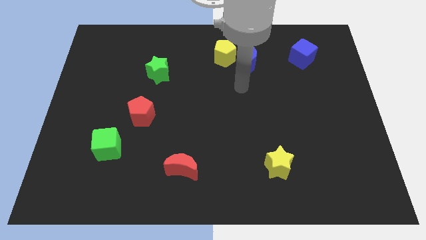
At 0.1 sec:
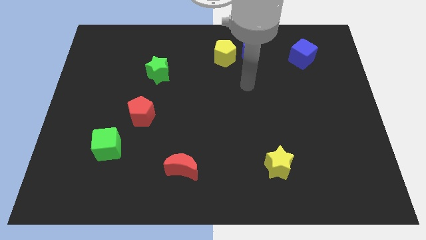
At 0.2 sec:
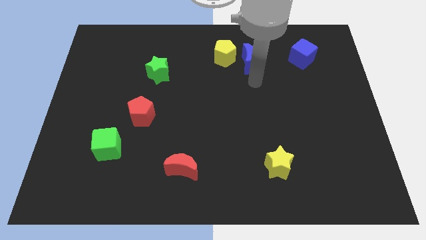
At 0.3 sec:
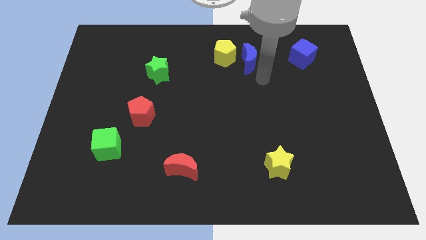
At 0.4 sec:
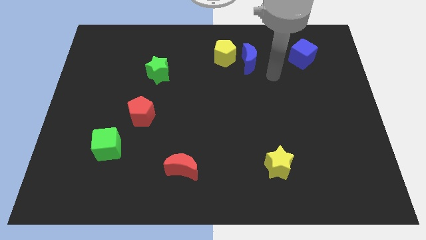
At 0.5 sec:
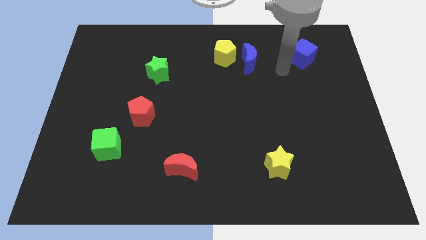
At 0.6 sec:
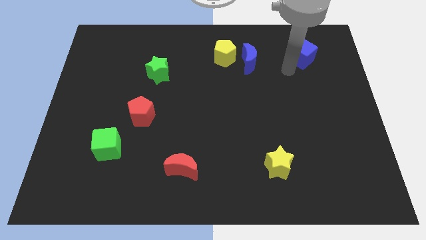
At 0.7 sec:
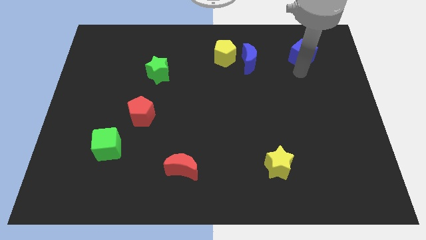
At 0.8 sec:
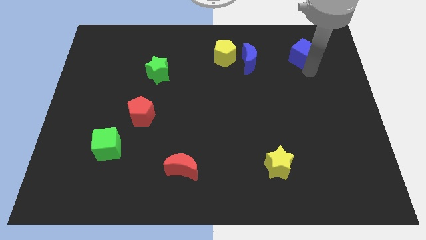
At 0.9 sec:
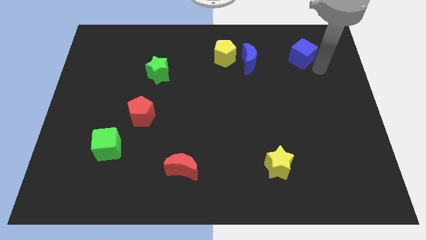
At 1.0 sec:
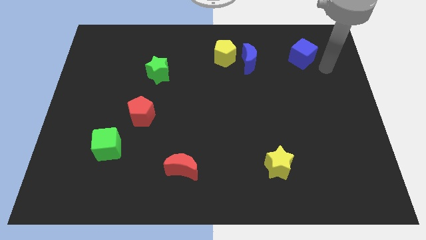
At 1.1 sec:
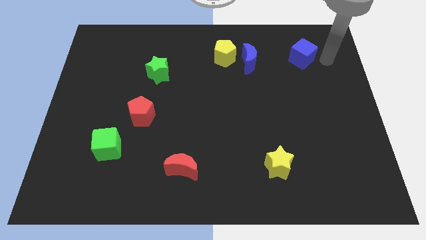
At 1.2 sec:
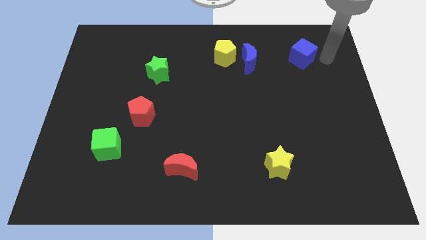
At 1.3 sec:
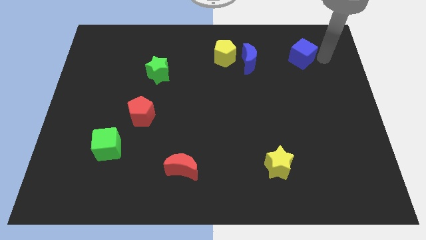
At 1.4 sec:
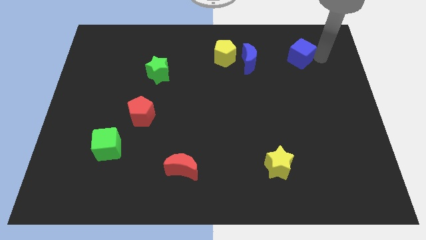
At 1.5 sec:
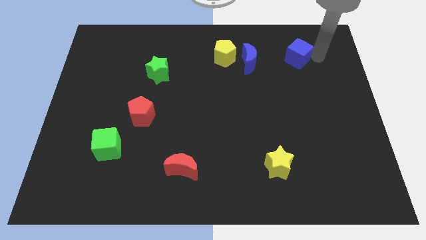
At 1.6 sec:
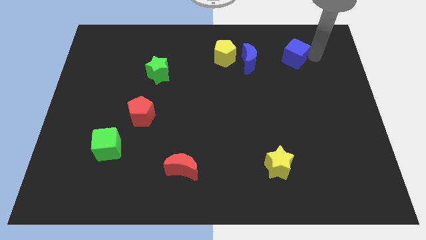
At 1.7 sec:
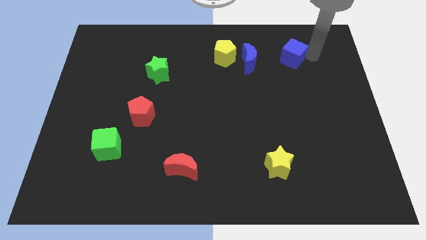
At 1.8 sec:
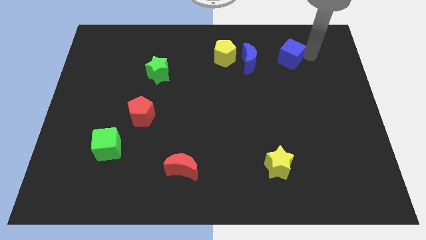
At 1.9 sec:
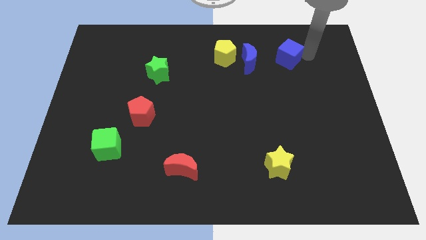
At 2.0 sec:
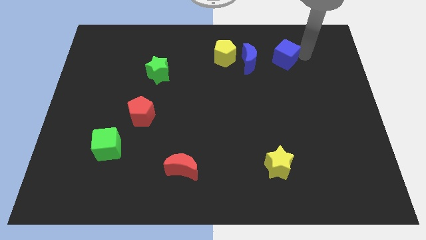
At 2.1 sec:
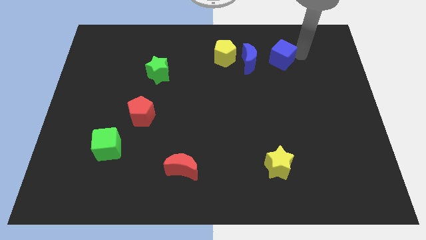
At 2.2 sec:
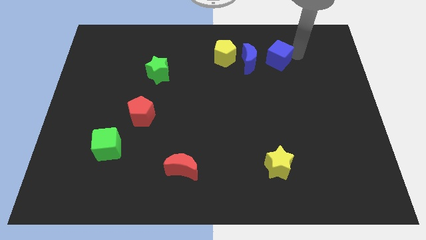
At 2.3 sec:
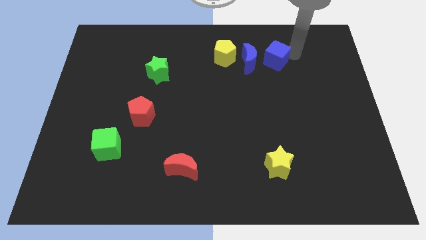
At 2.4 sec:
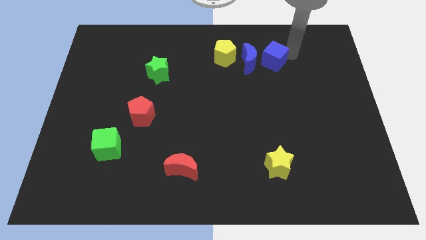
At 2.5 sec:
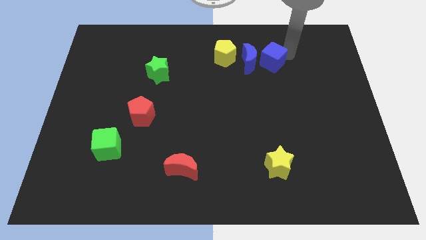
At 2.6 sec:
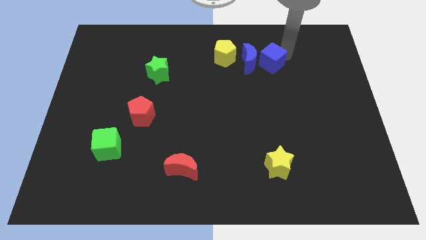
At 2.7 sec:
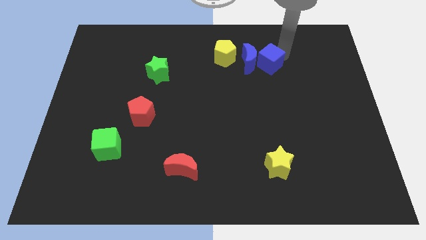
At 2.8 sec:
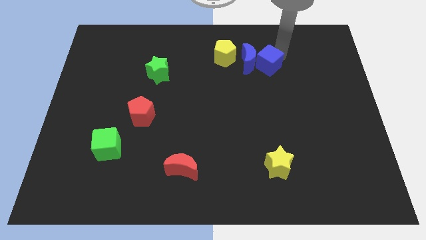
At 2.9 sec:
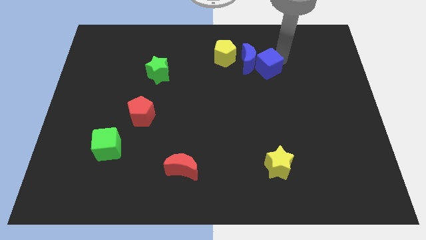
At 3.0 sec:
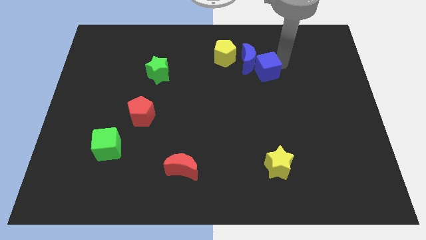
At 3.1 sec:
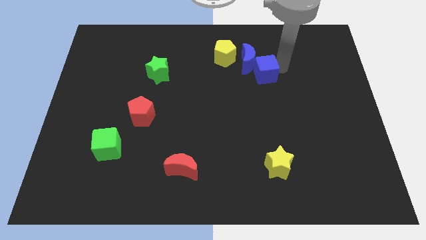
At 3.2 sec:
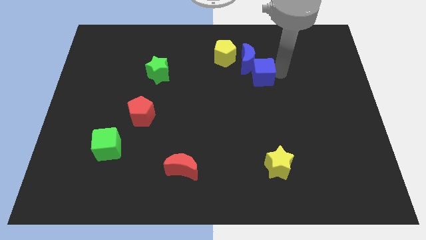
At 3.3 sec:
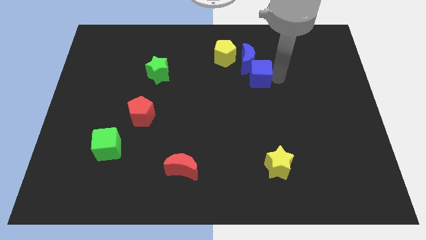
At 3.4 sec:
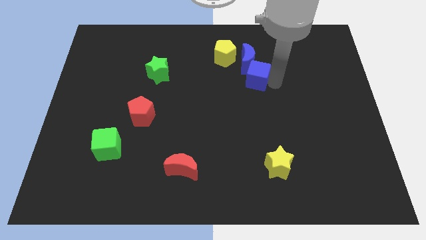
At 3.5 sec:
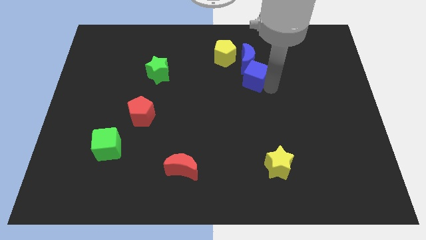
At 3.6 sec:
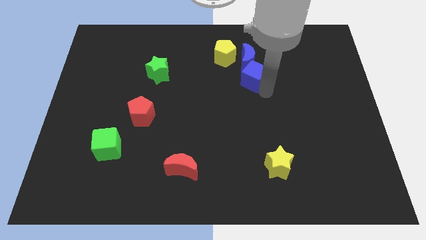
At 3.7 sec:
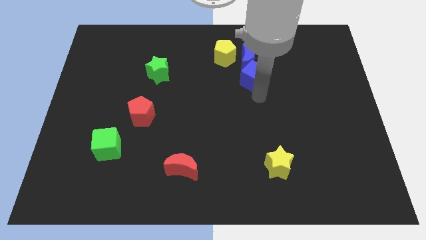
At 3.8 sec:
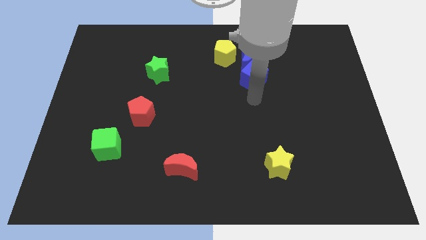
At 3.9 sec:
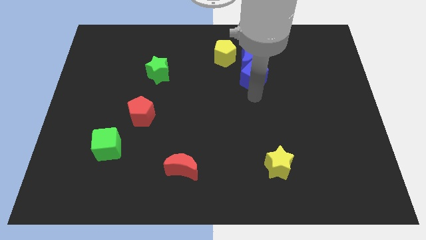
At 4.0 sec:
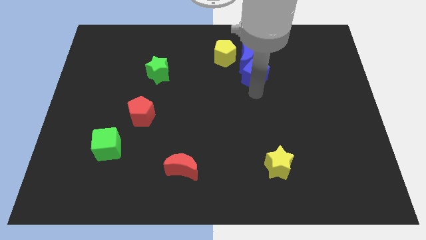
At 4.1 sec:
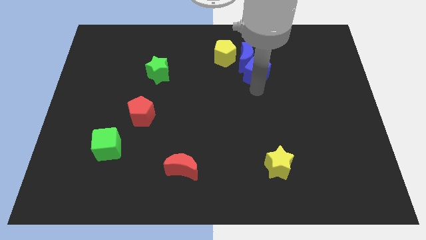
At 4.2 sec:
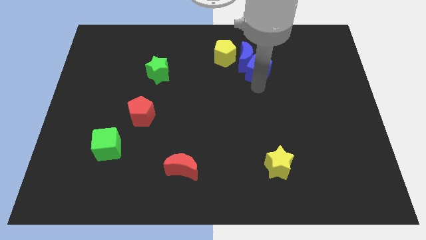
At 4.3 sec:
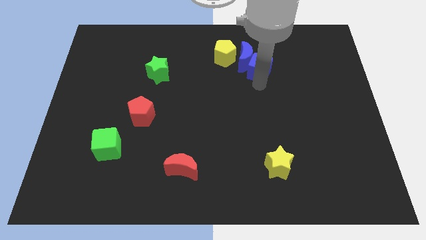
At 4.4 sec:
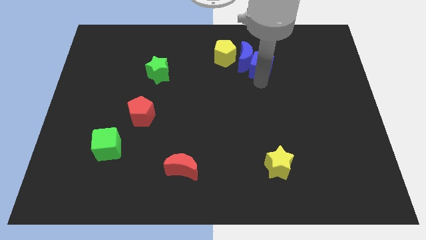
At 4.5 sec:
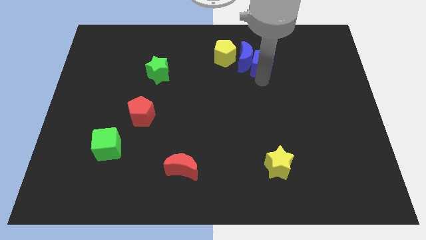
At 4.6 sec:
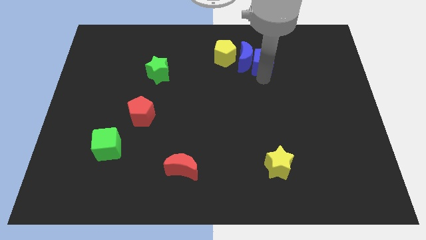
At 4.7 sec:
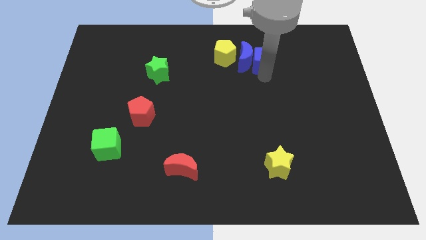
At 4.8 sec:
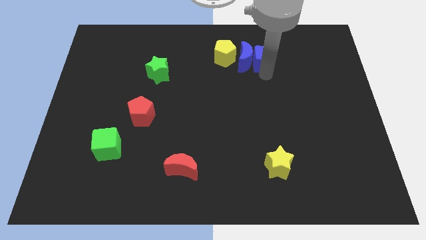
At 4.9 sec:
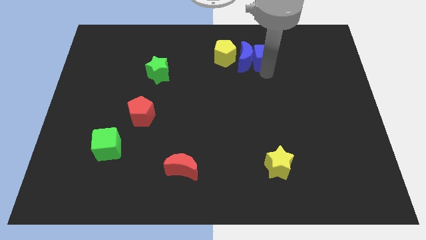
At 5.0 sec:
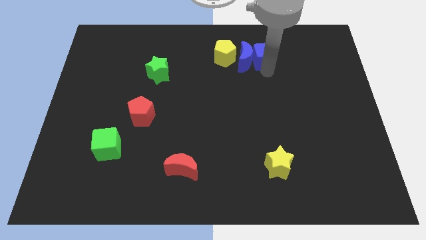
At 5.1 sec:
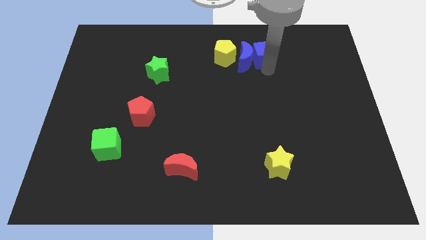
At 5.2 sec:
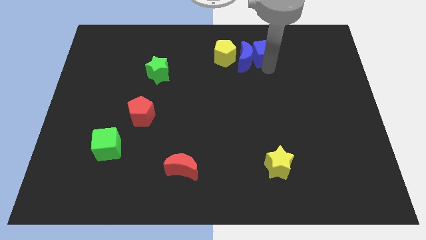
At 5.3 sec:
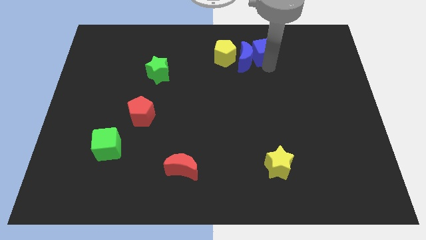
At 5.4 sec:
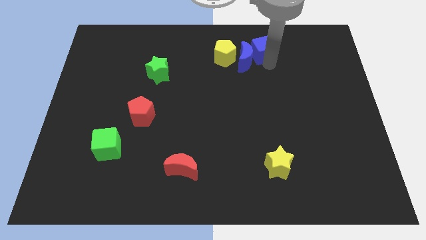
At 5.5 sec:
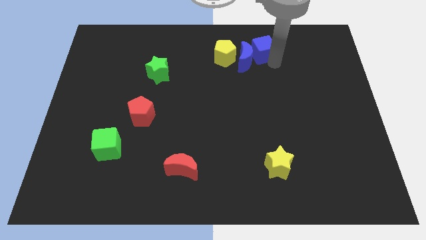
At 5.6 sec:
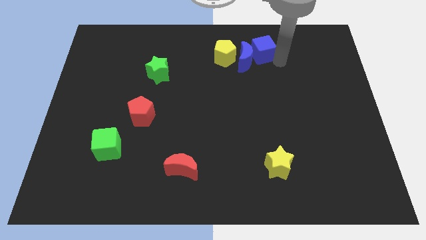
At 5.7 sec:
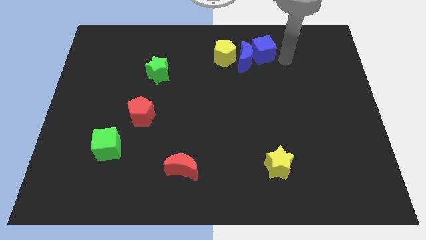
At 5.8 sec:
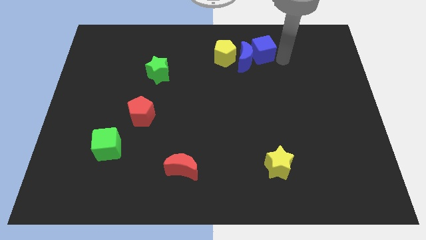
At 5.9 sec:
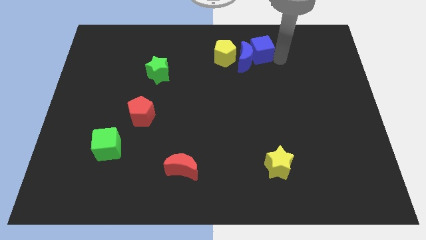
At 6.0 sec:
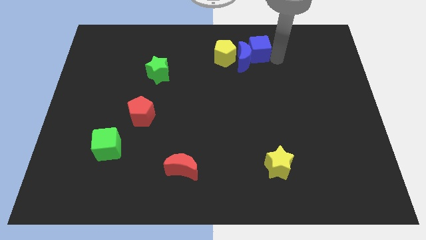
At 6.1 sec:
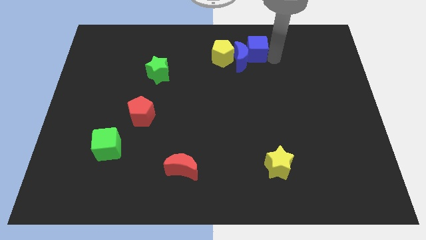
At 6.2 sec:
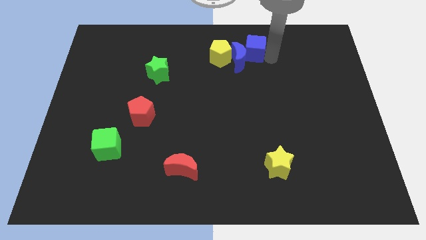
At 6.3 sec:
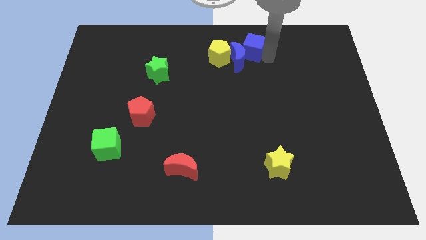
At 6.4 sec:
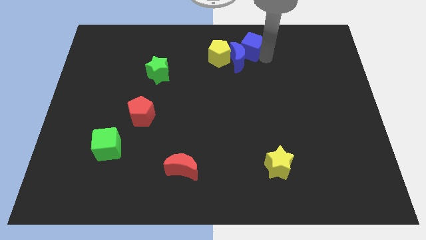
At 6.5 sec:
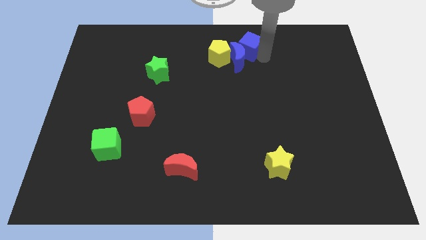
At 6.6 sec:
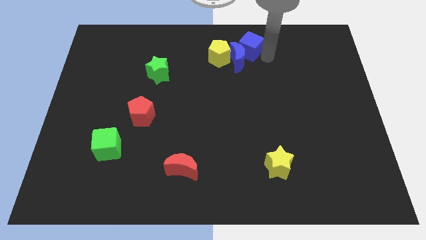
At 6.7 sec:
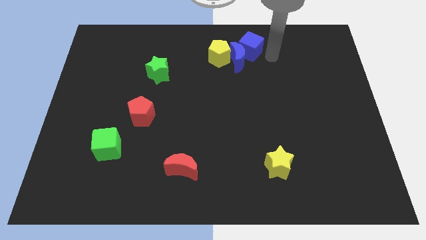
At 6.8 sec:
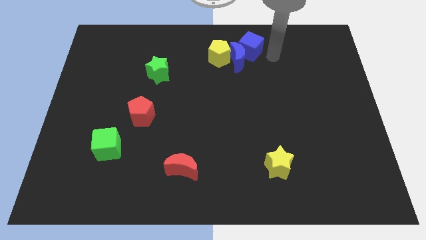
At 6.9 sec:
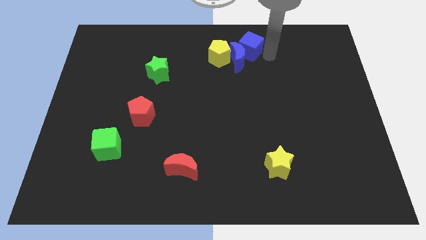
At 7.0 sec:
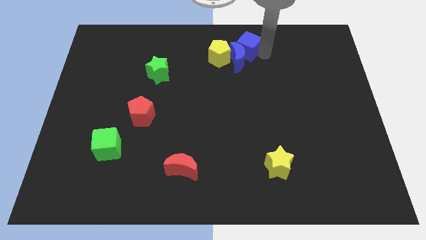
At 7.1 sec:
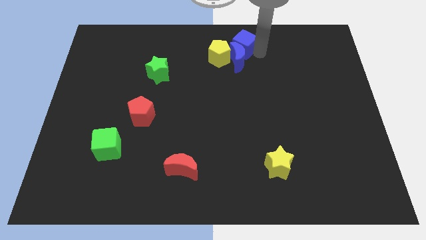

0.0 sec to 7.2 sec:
push the blue cube to the top
